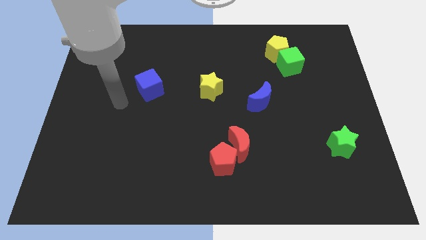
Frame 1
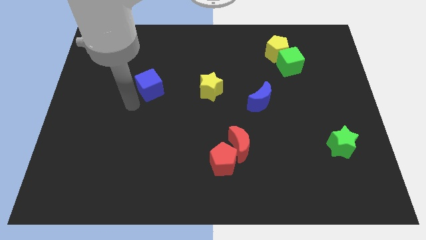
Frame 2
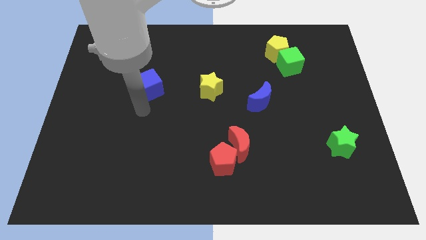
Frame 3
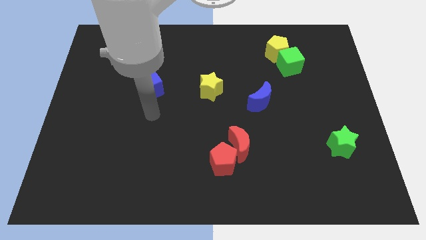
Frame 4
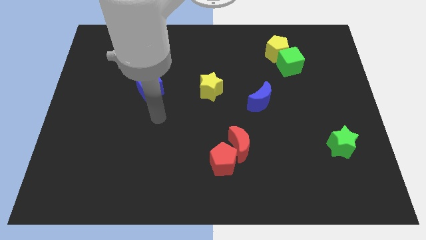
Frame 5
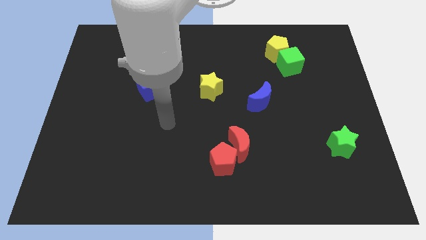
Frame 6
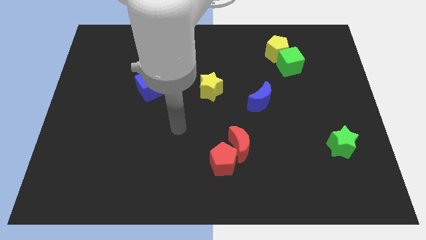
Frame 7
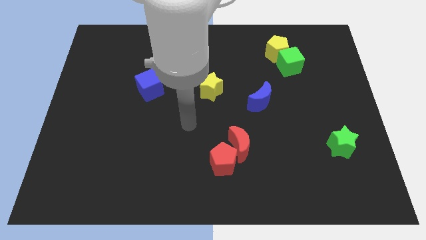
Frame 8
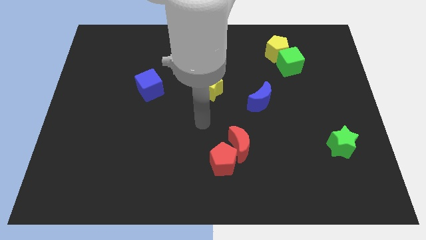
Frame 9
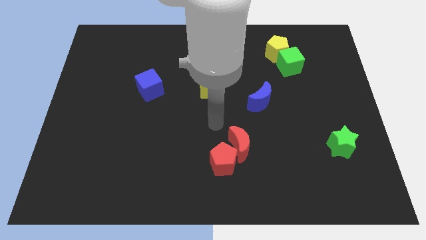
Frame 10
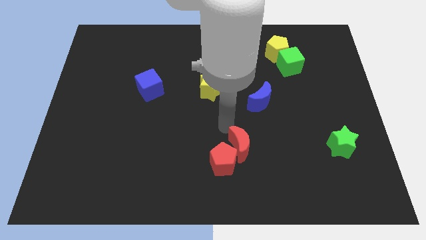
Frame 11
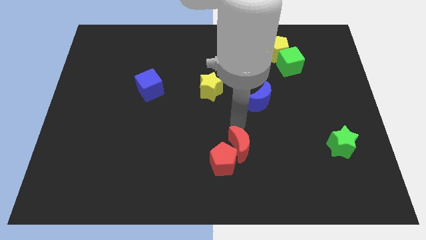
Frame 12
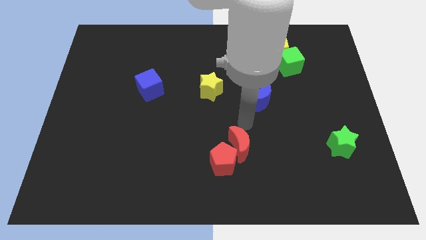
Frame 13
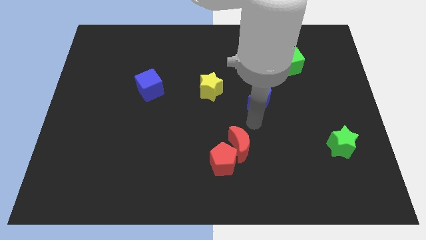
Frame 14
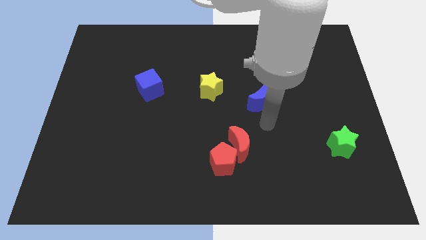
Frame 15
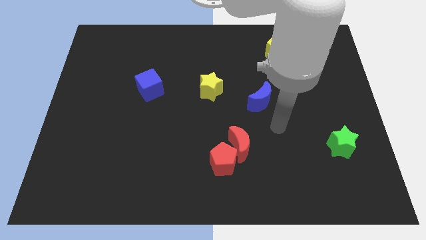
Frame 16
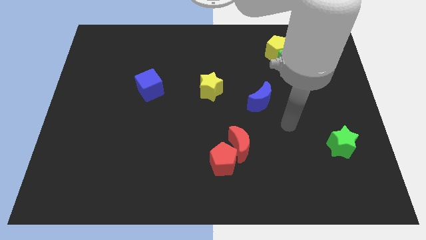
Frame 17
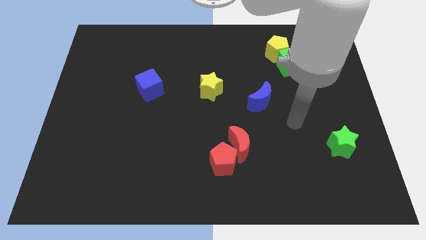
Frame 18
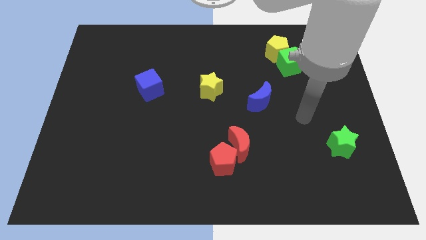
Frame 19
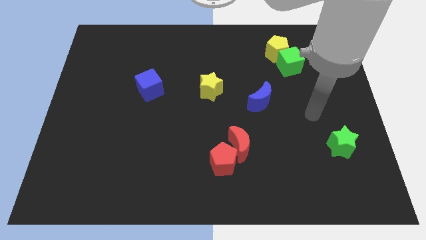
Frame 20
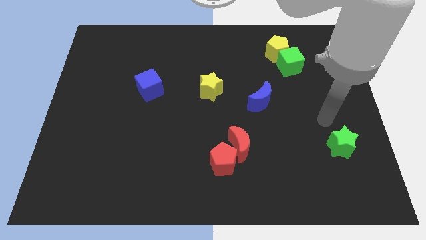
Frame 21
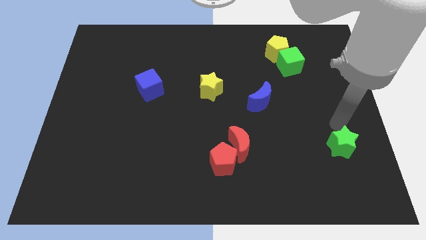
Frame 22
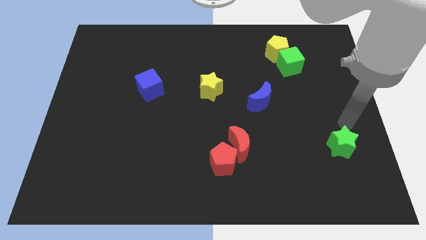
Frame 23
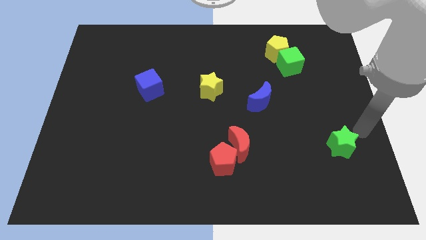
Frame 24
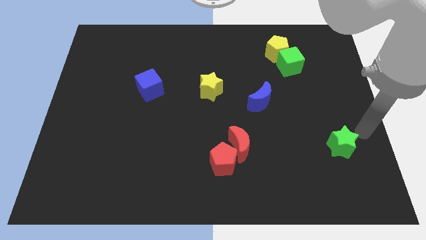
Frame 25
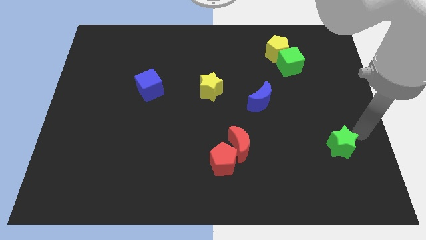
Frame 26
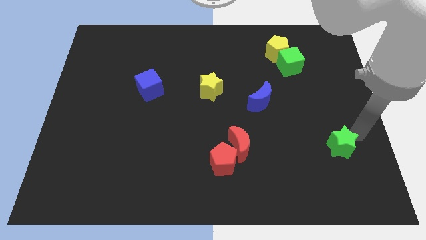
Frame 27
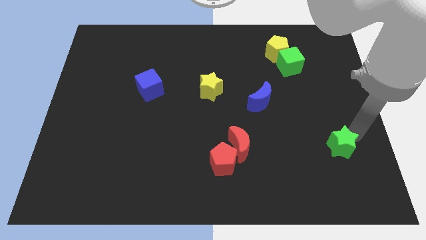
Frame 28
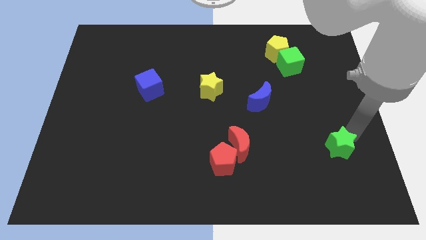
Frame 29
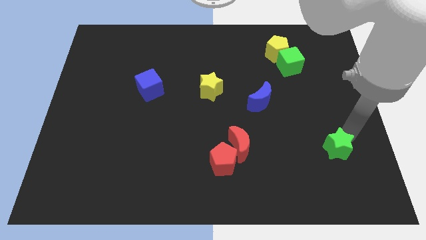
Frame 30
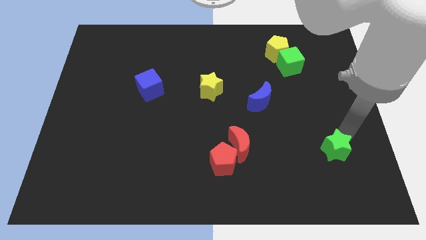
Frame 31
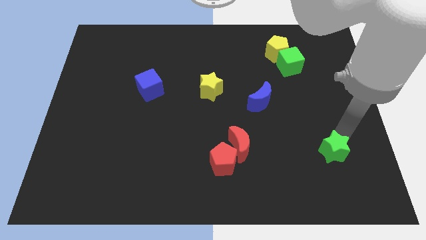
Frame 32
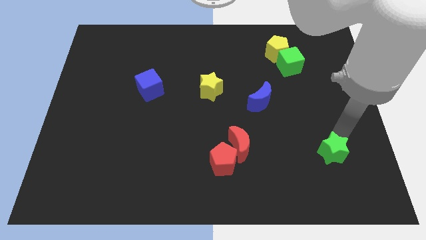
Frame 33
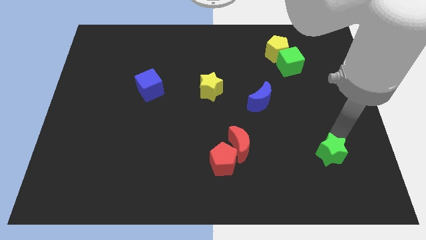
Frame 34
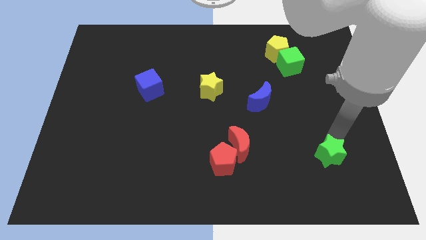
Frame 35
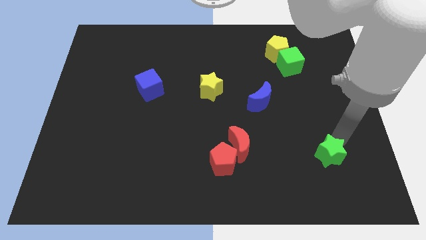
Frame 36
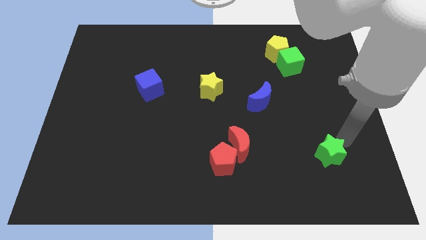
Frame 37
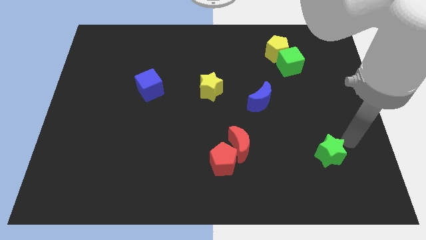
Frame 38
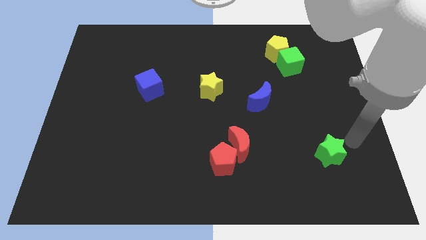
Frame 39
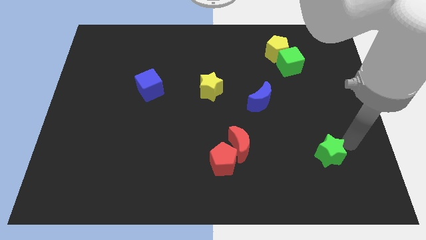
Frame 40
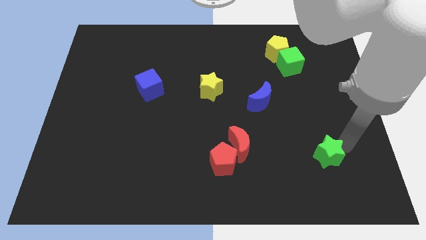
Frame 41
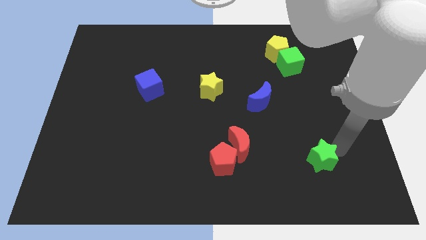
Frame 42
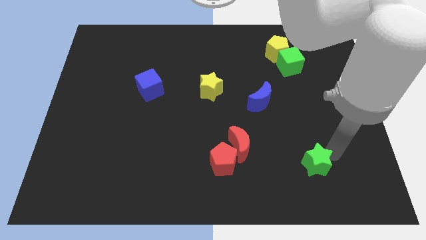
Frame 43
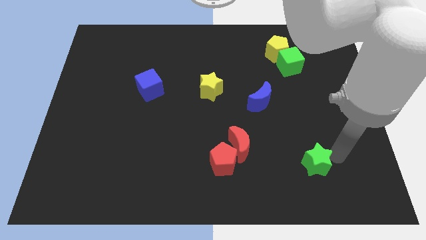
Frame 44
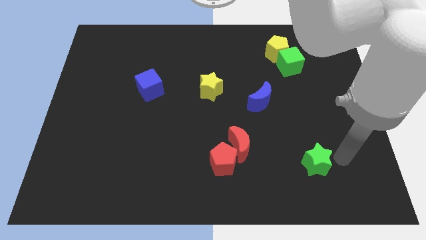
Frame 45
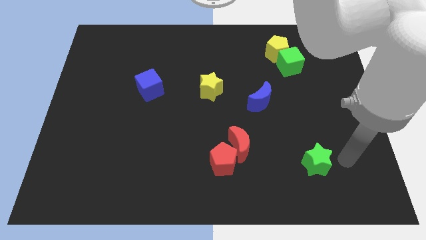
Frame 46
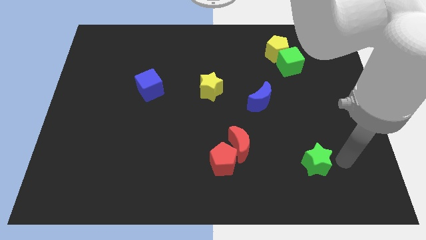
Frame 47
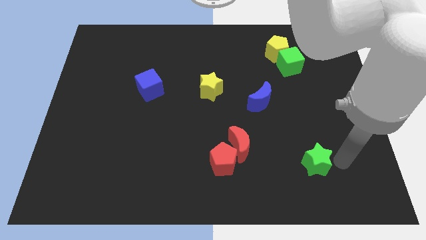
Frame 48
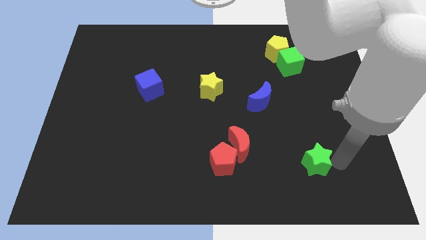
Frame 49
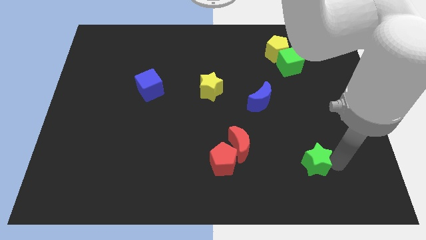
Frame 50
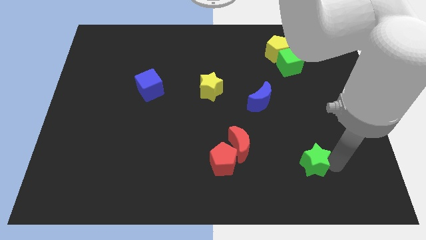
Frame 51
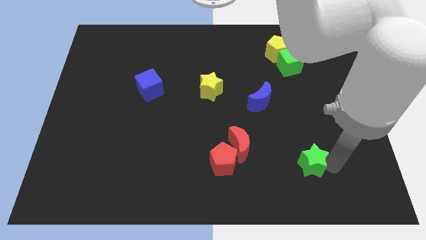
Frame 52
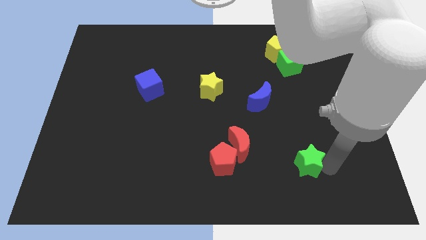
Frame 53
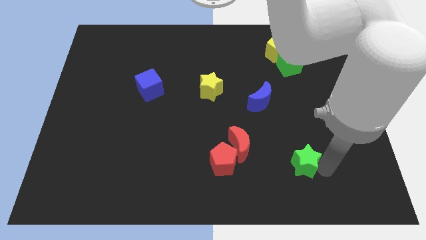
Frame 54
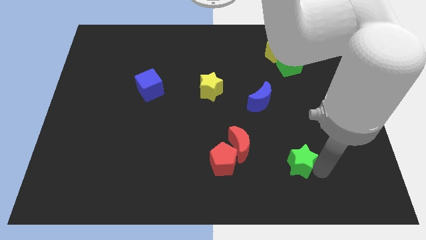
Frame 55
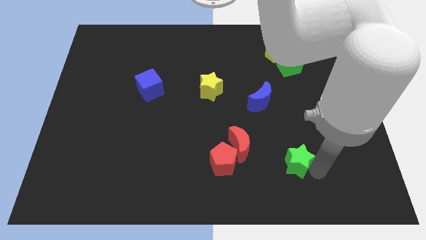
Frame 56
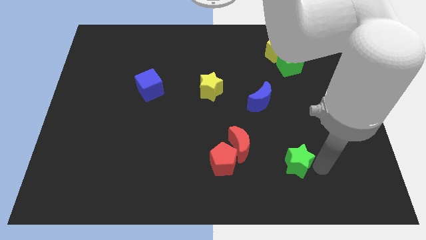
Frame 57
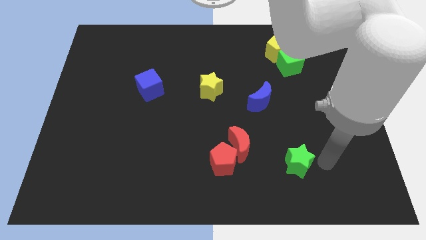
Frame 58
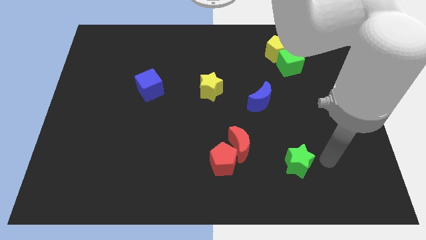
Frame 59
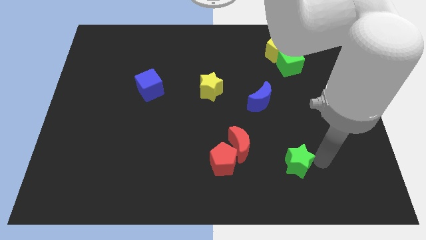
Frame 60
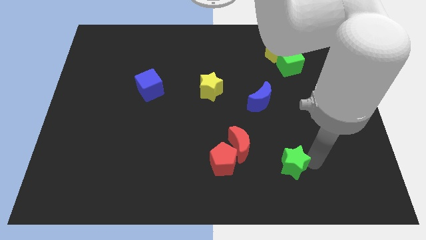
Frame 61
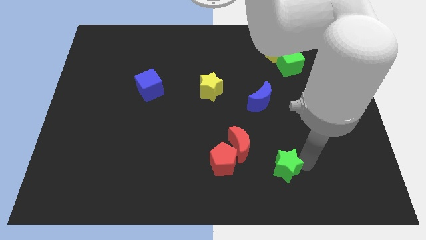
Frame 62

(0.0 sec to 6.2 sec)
push the green star to the bottom right side of the red moon
